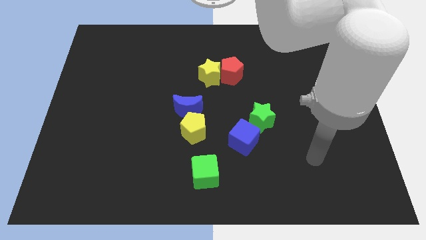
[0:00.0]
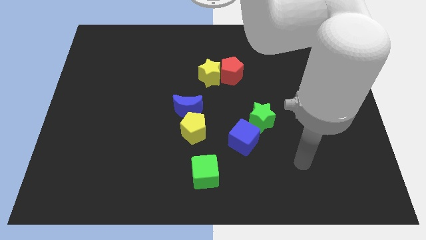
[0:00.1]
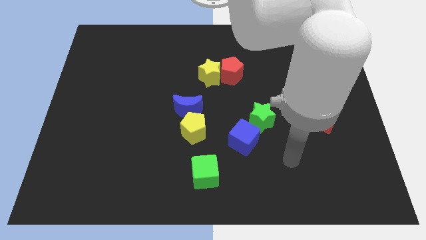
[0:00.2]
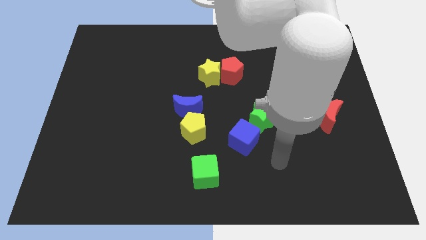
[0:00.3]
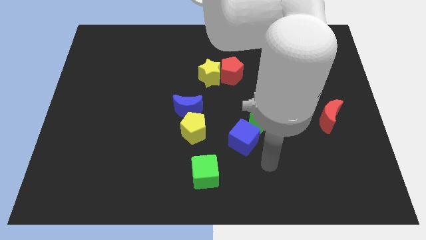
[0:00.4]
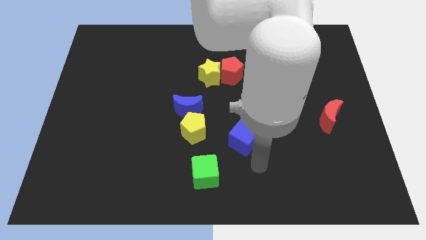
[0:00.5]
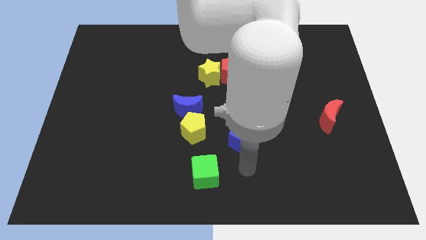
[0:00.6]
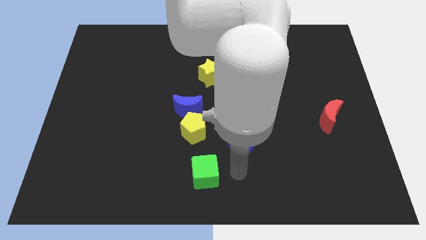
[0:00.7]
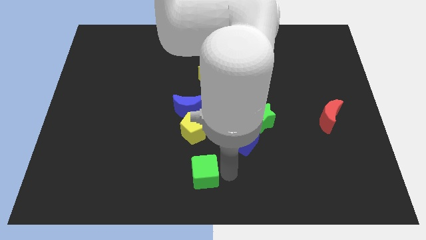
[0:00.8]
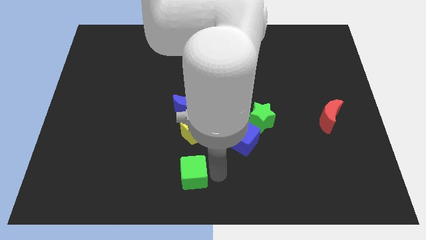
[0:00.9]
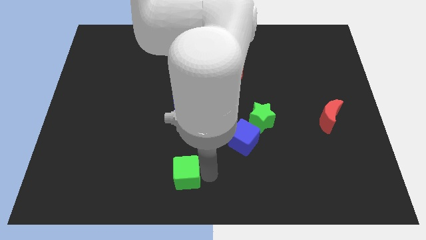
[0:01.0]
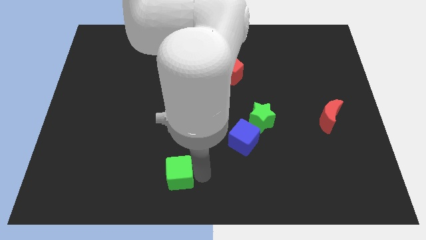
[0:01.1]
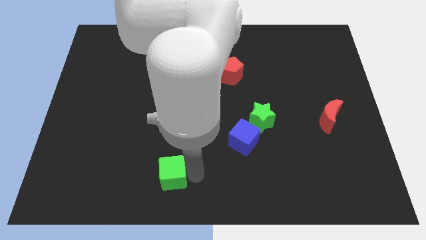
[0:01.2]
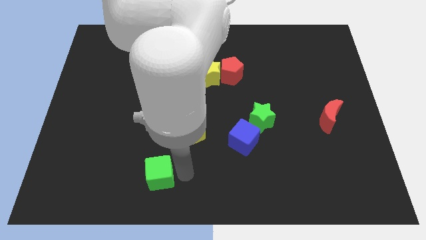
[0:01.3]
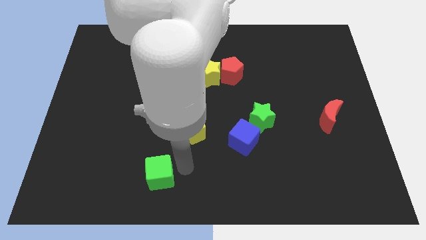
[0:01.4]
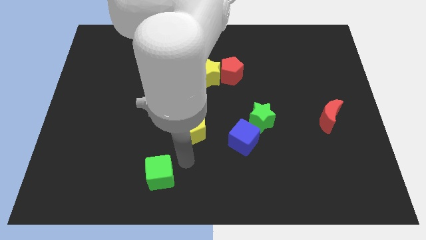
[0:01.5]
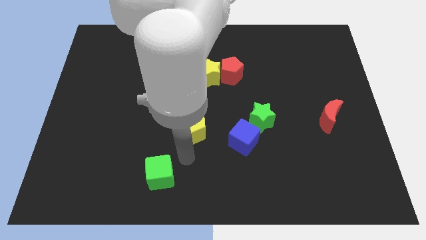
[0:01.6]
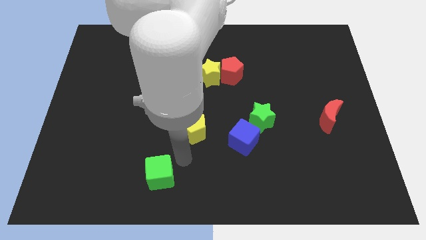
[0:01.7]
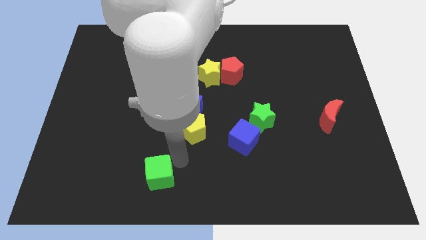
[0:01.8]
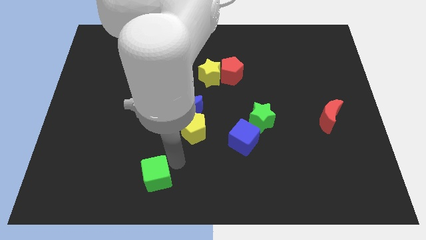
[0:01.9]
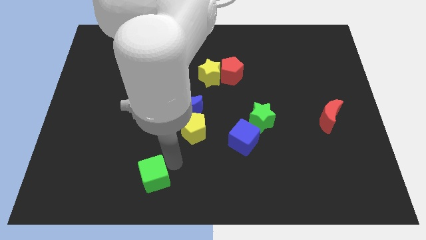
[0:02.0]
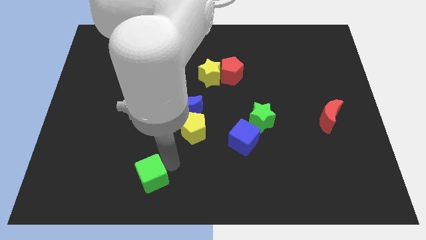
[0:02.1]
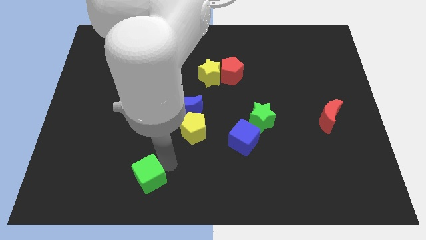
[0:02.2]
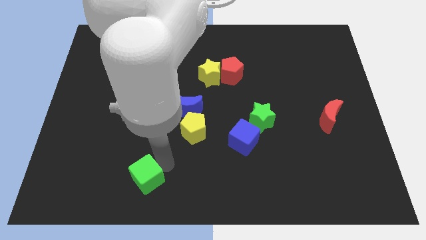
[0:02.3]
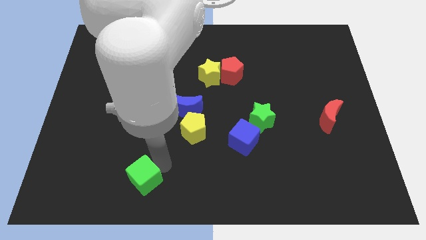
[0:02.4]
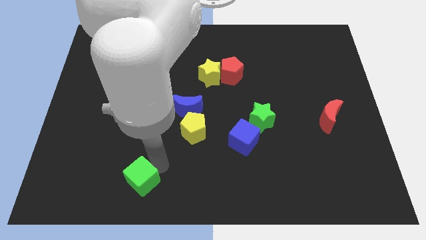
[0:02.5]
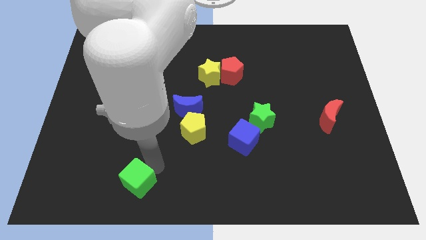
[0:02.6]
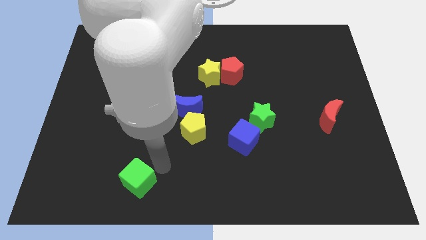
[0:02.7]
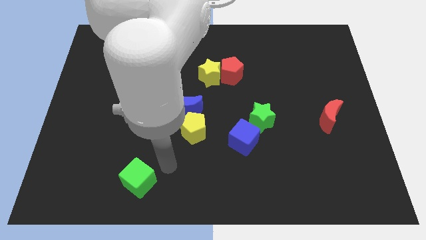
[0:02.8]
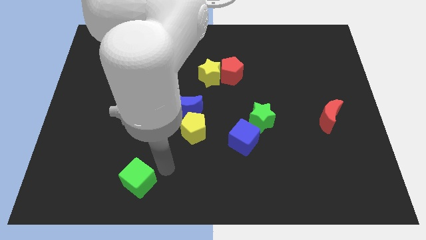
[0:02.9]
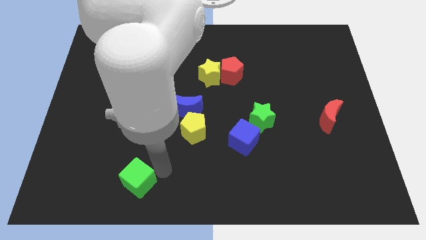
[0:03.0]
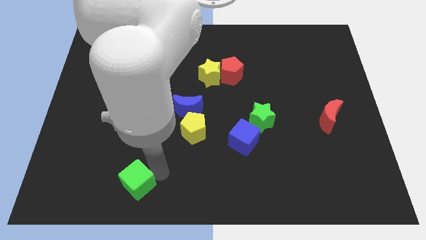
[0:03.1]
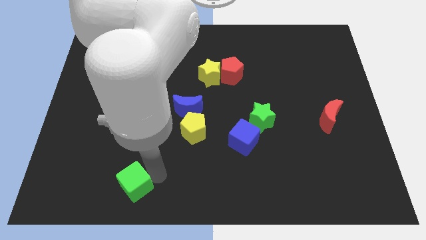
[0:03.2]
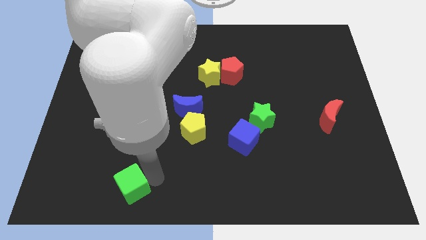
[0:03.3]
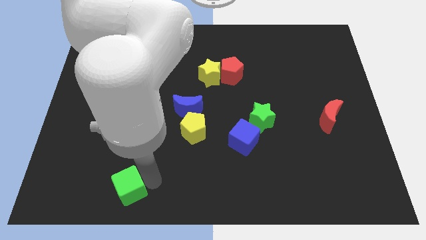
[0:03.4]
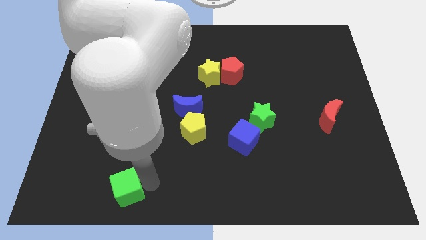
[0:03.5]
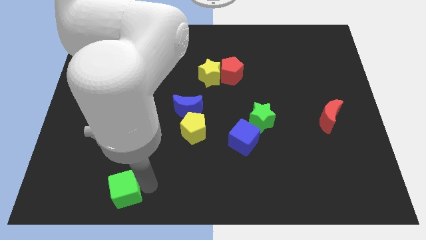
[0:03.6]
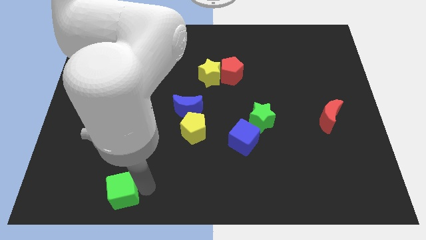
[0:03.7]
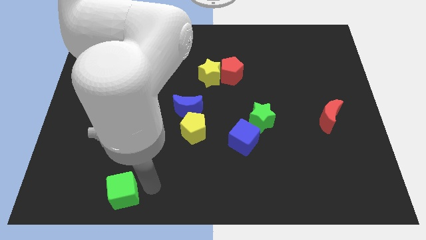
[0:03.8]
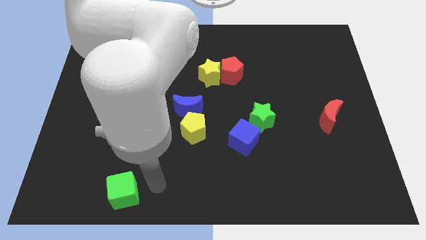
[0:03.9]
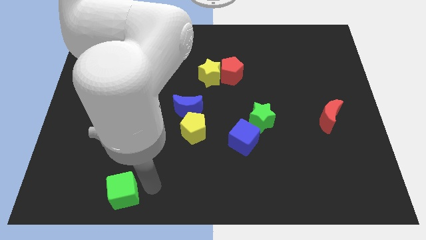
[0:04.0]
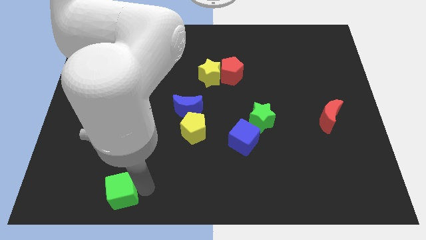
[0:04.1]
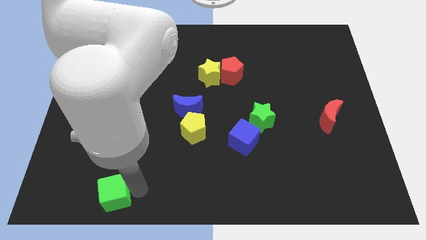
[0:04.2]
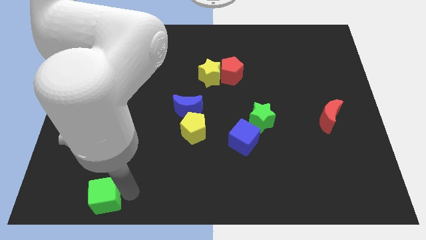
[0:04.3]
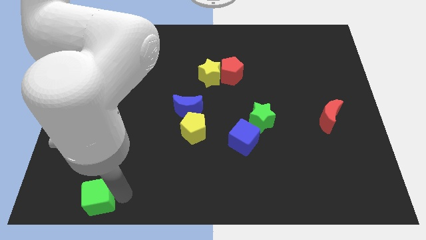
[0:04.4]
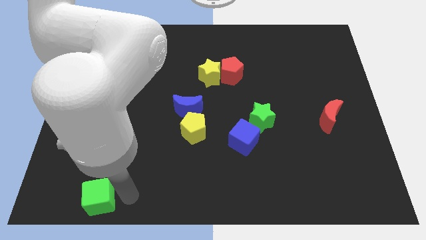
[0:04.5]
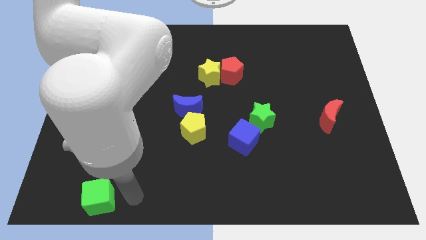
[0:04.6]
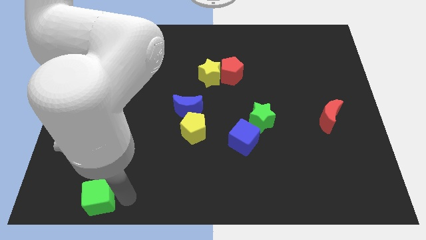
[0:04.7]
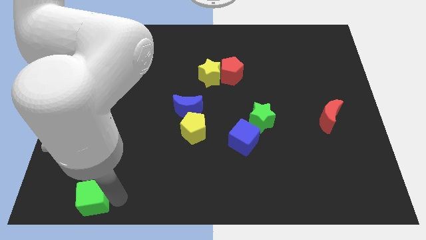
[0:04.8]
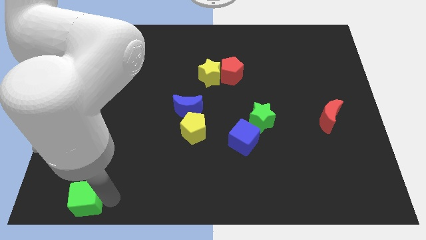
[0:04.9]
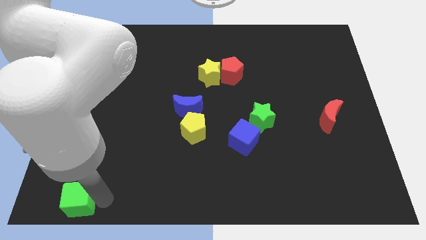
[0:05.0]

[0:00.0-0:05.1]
slide the green cube to the bottom left

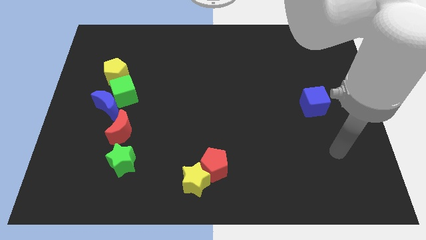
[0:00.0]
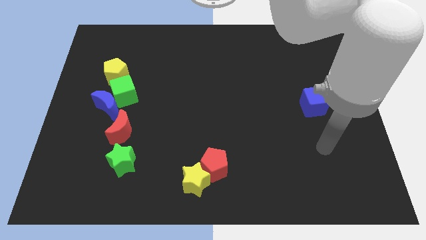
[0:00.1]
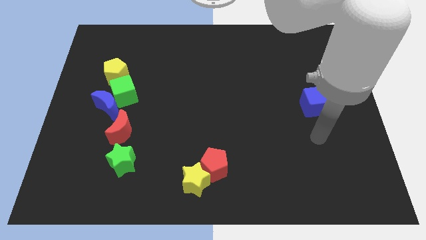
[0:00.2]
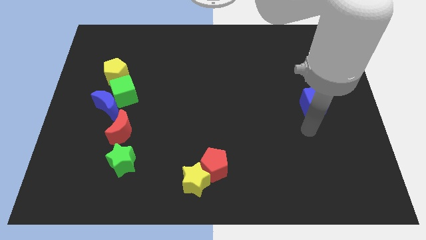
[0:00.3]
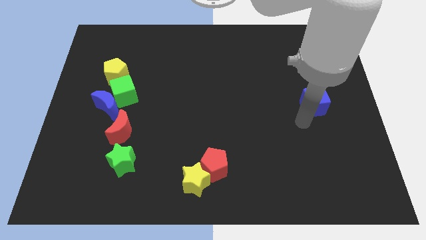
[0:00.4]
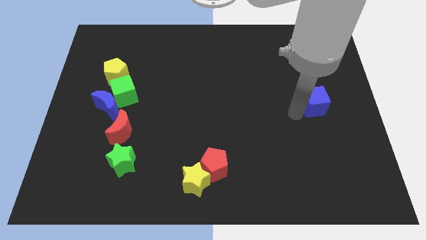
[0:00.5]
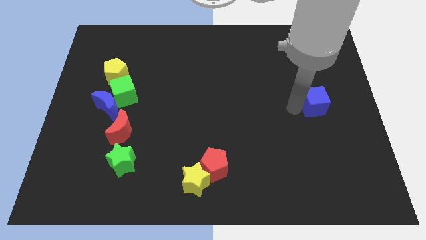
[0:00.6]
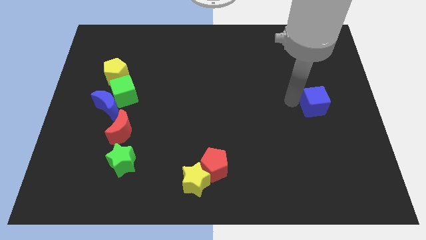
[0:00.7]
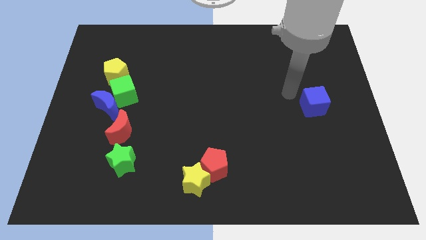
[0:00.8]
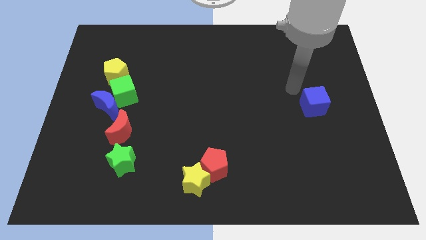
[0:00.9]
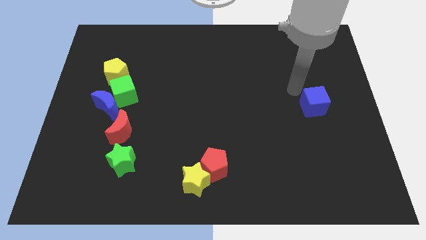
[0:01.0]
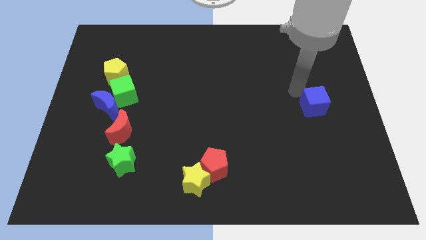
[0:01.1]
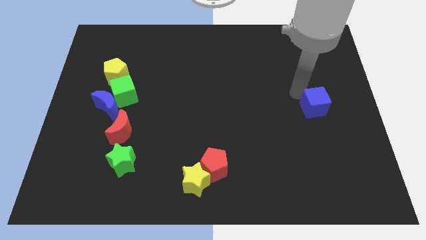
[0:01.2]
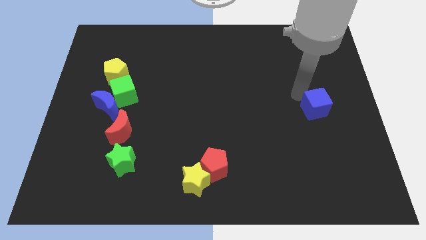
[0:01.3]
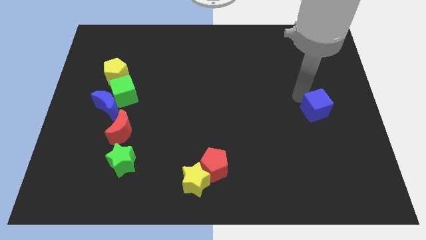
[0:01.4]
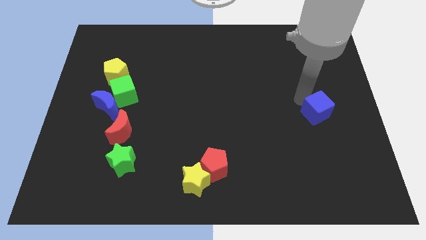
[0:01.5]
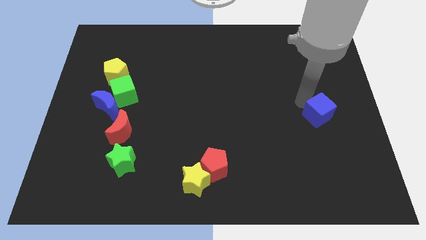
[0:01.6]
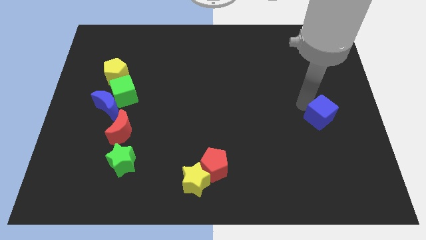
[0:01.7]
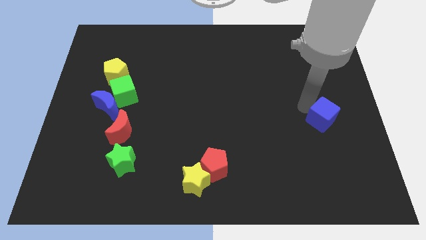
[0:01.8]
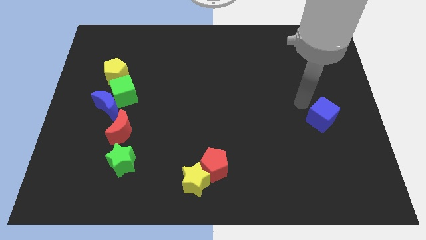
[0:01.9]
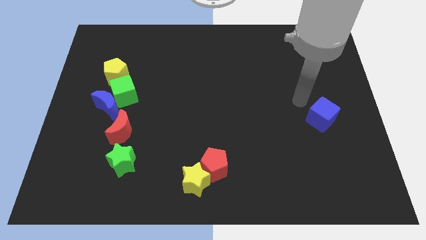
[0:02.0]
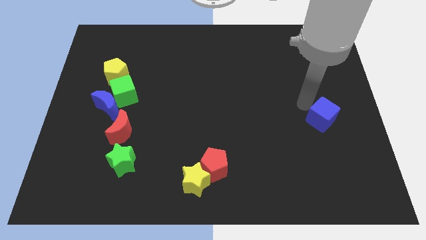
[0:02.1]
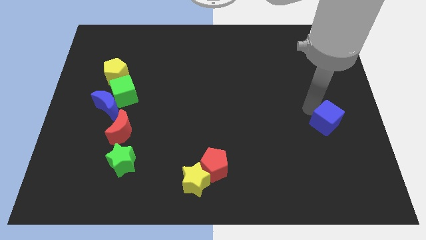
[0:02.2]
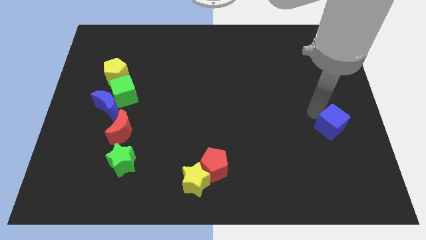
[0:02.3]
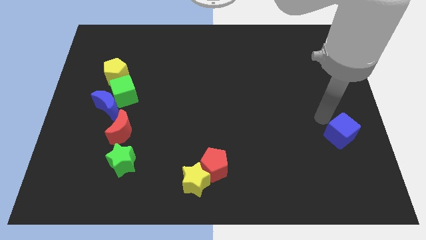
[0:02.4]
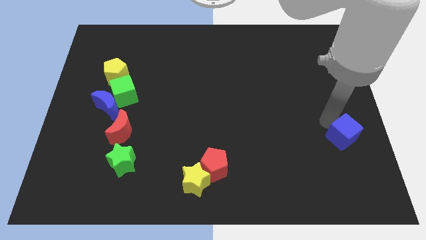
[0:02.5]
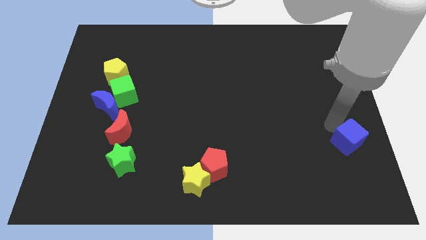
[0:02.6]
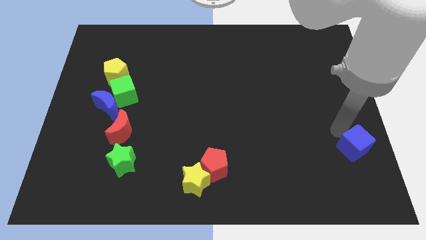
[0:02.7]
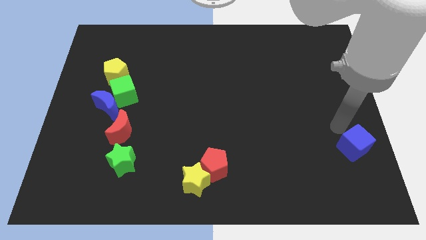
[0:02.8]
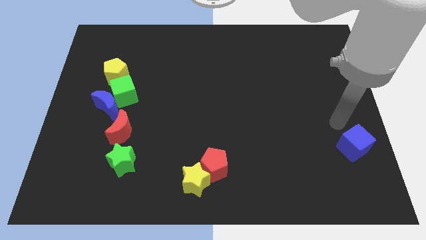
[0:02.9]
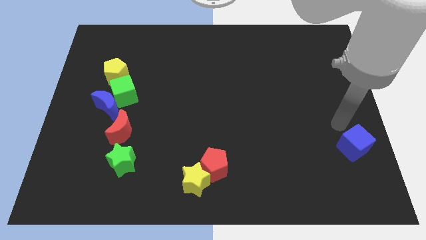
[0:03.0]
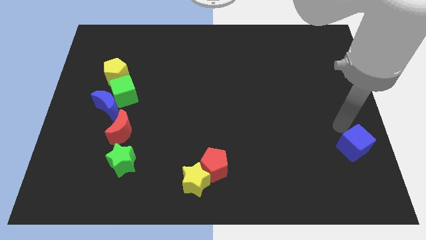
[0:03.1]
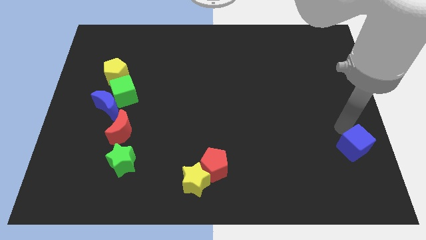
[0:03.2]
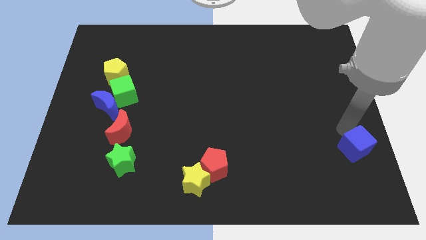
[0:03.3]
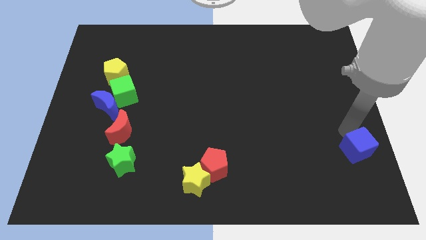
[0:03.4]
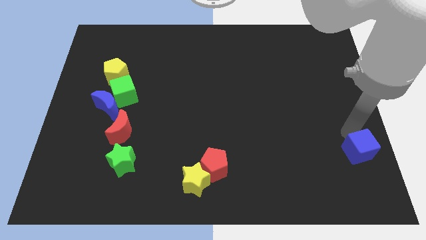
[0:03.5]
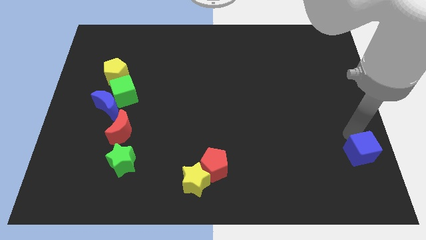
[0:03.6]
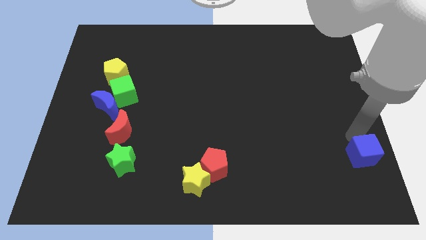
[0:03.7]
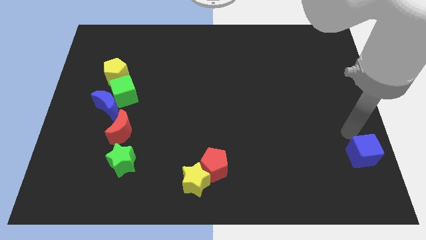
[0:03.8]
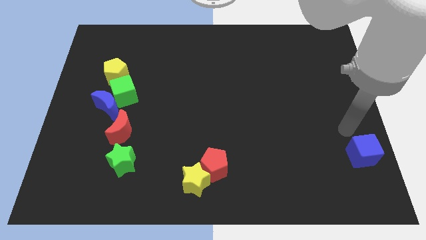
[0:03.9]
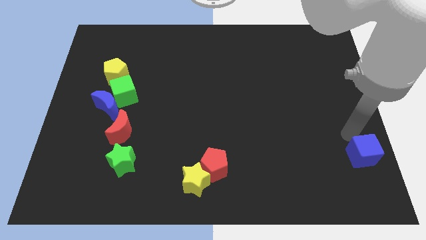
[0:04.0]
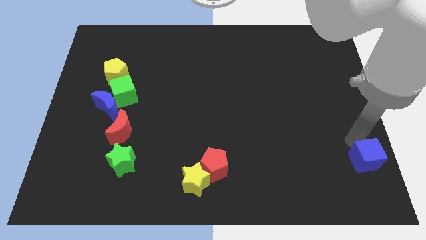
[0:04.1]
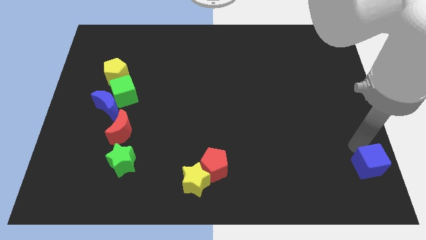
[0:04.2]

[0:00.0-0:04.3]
move the blue cube to the lower right corner
